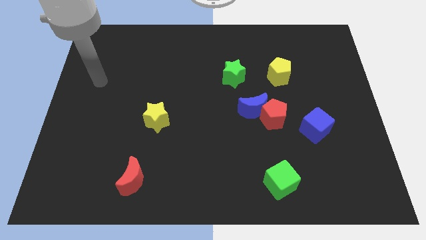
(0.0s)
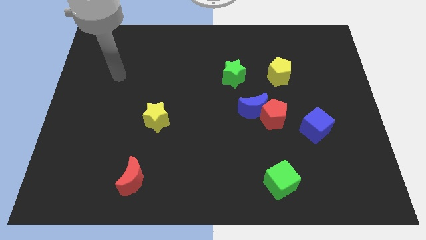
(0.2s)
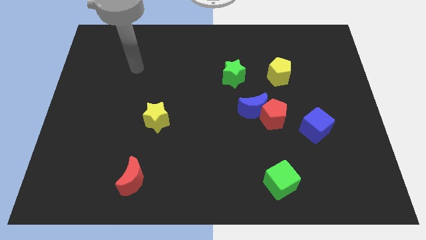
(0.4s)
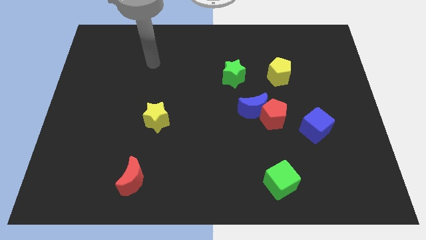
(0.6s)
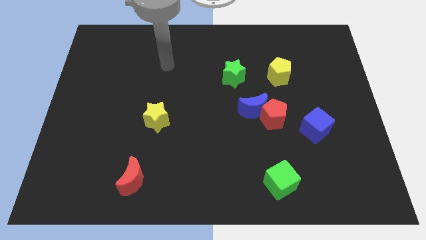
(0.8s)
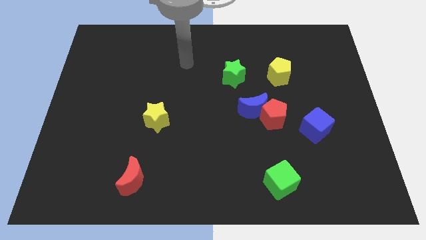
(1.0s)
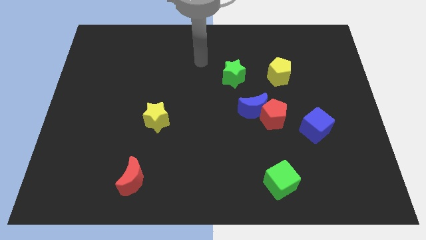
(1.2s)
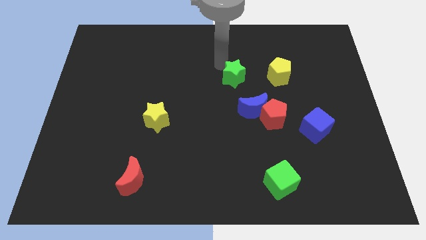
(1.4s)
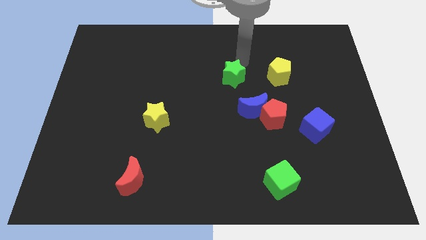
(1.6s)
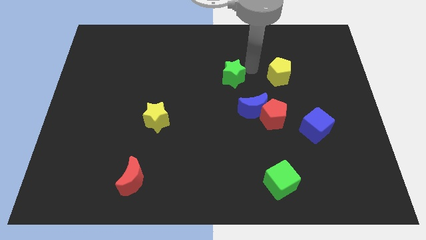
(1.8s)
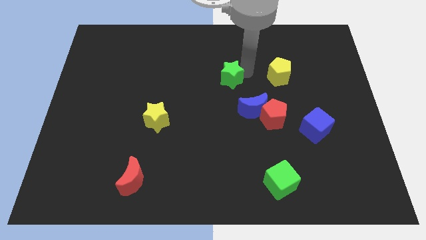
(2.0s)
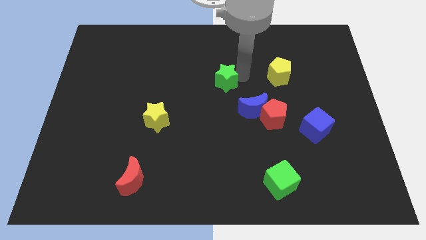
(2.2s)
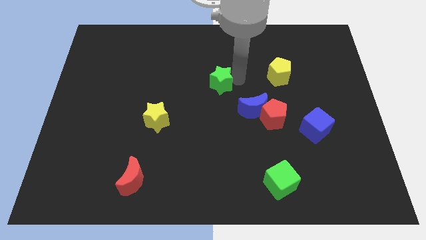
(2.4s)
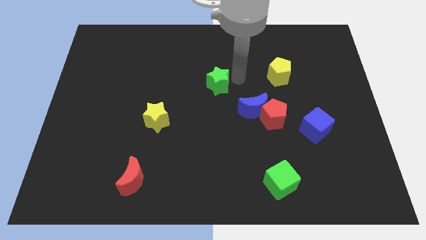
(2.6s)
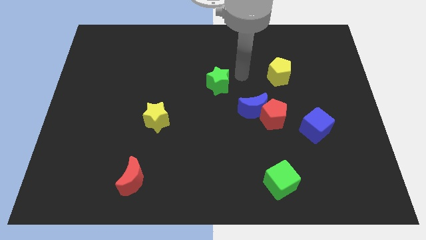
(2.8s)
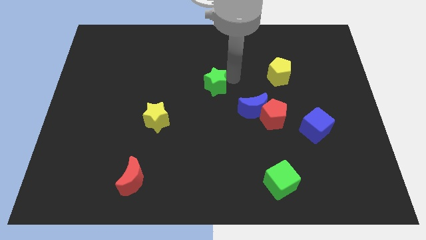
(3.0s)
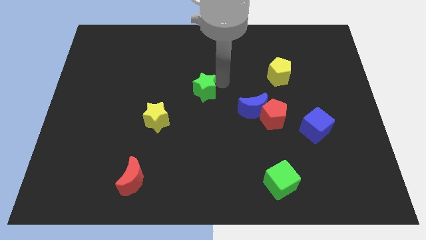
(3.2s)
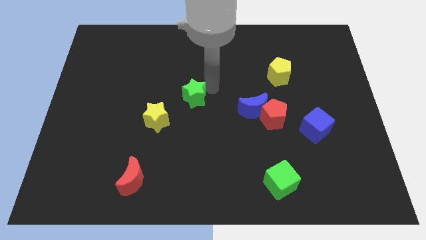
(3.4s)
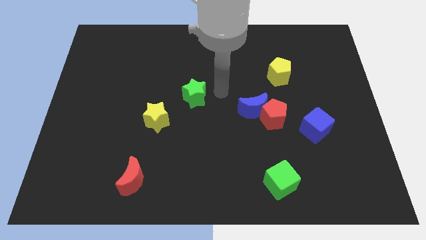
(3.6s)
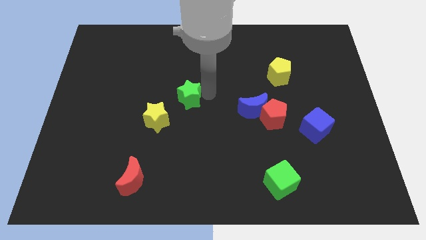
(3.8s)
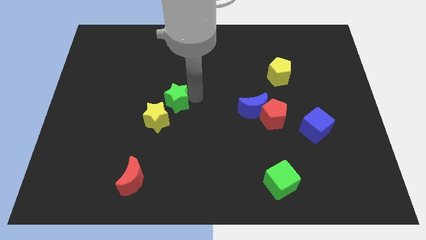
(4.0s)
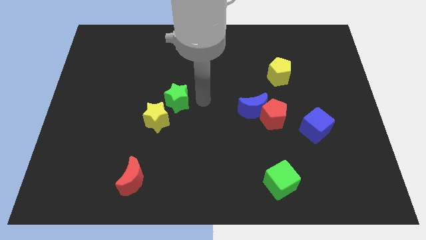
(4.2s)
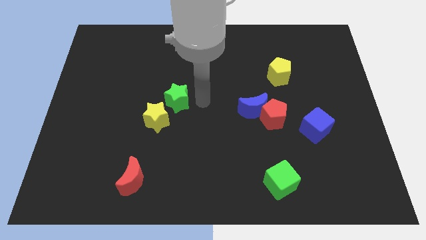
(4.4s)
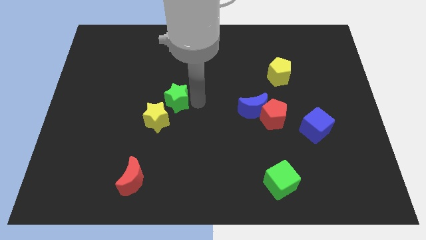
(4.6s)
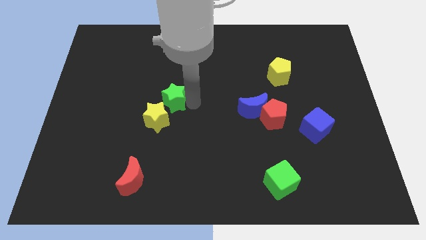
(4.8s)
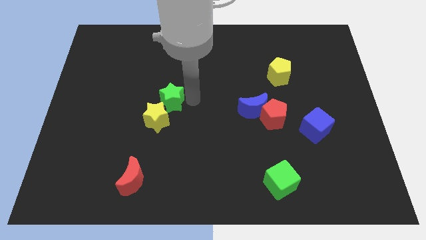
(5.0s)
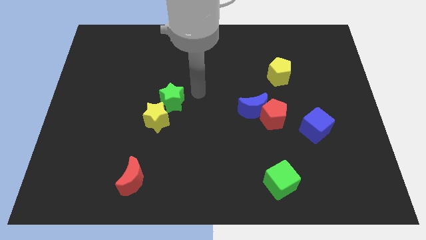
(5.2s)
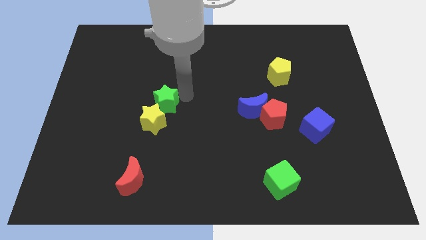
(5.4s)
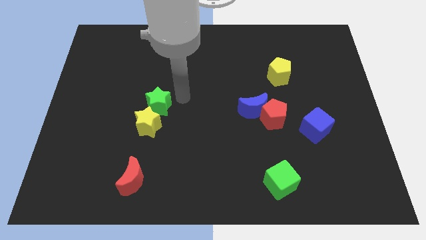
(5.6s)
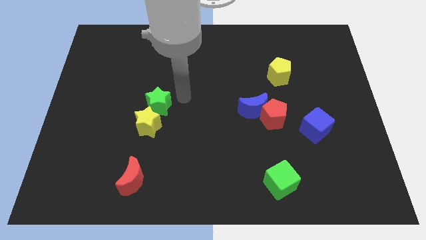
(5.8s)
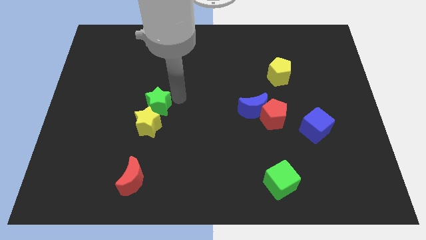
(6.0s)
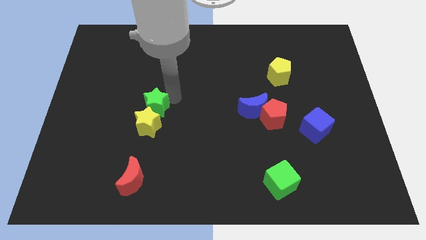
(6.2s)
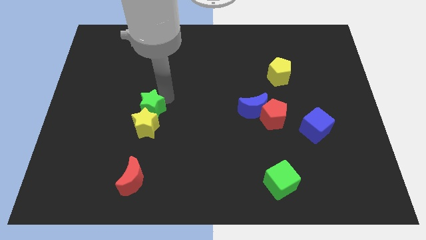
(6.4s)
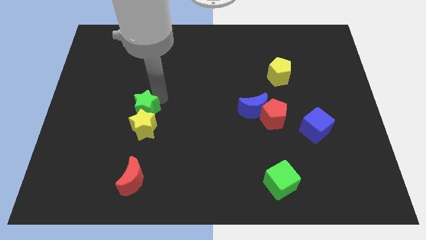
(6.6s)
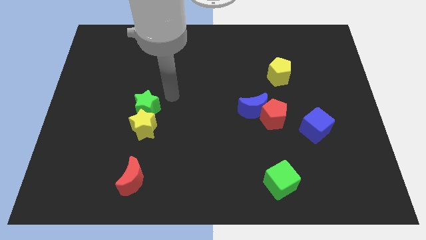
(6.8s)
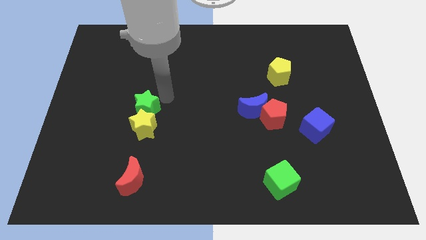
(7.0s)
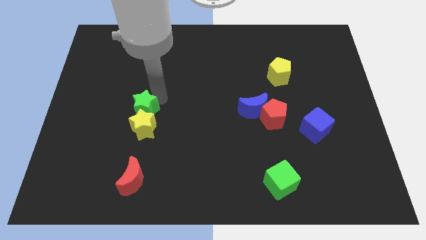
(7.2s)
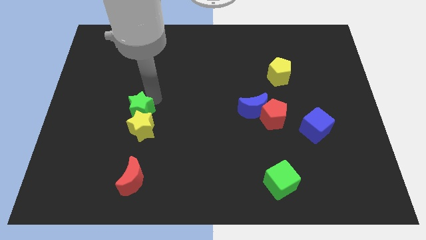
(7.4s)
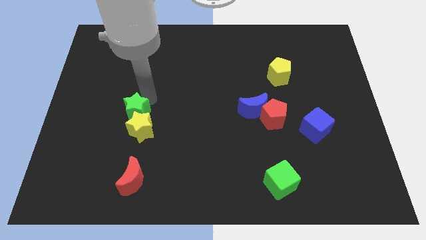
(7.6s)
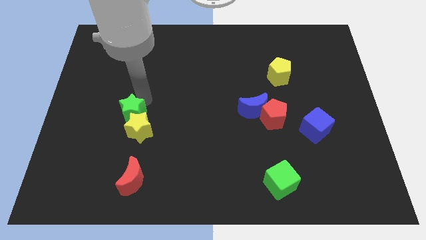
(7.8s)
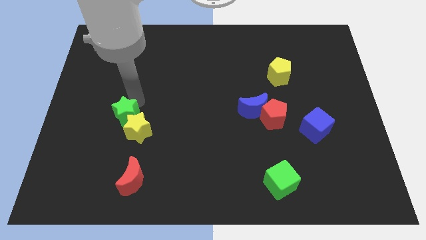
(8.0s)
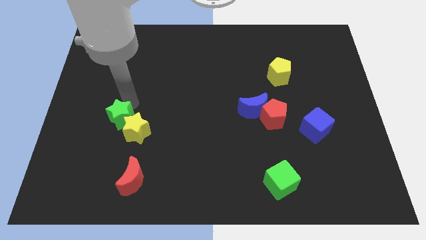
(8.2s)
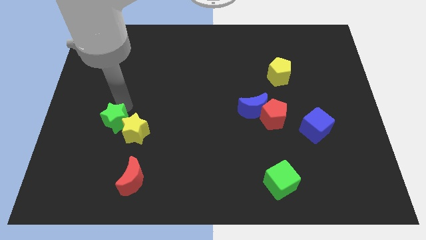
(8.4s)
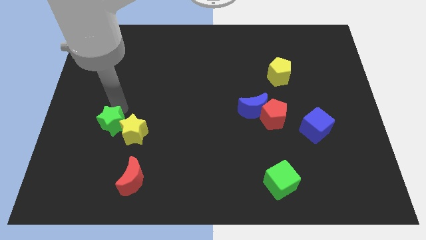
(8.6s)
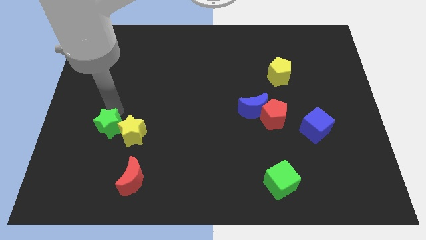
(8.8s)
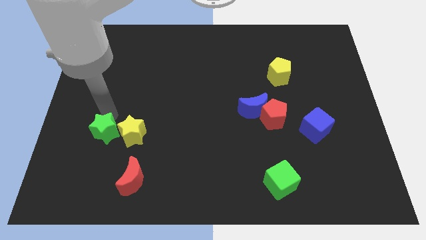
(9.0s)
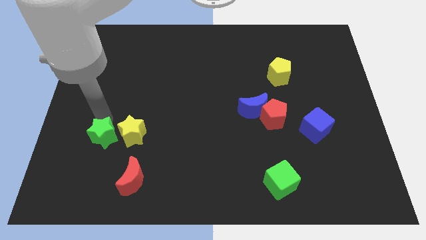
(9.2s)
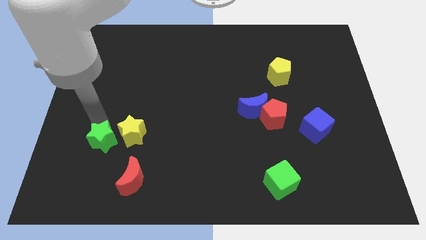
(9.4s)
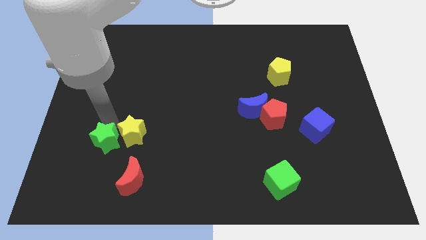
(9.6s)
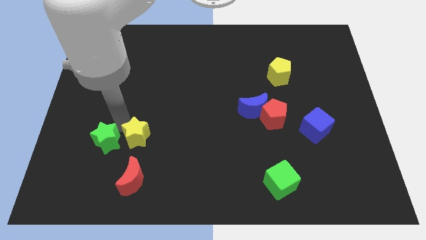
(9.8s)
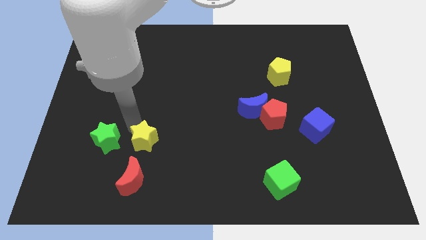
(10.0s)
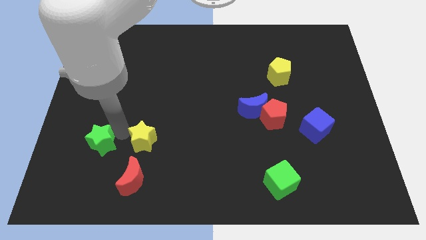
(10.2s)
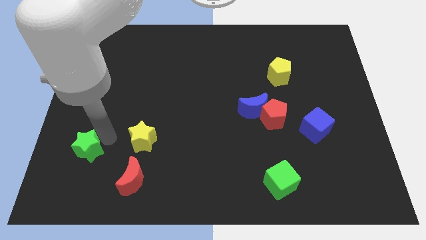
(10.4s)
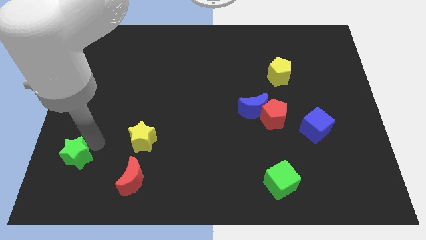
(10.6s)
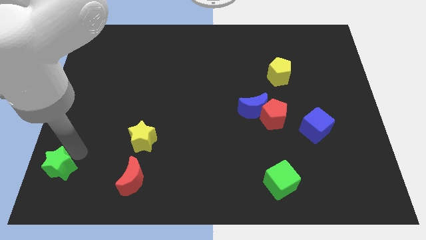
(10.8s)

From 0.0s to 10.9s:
put the green star to the bottom left corner

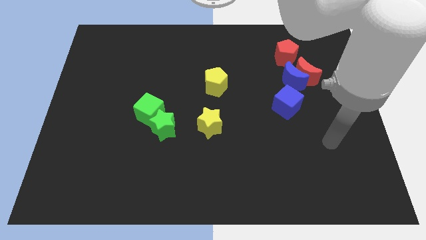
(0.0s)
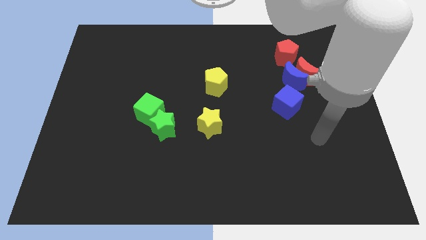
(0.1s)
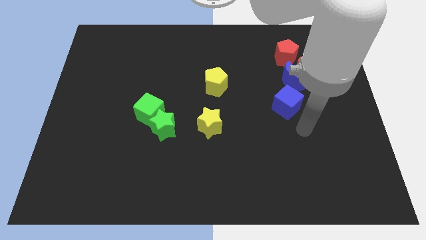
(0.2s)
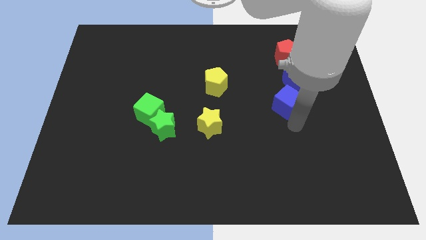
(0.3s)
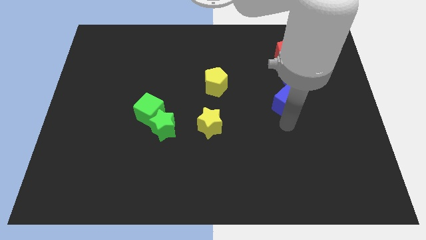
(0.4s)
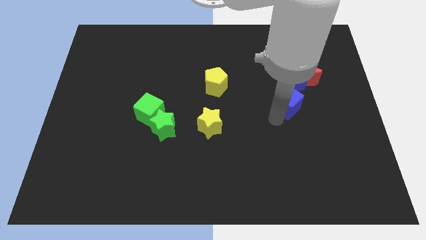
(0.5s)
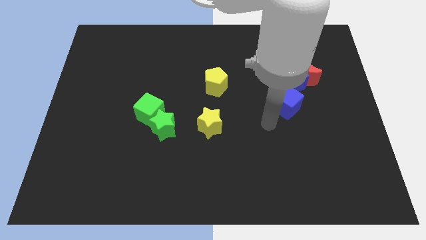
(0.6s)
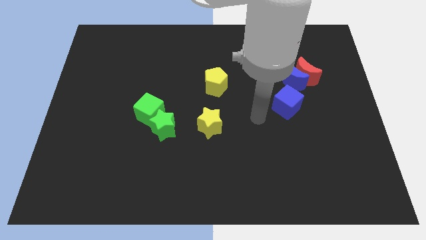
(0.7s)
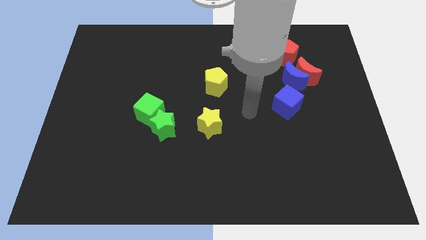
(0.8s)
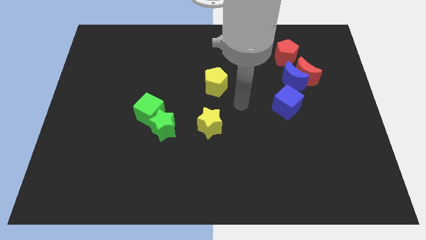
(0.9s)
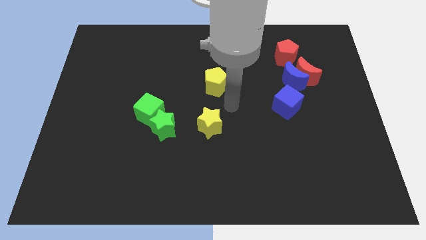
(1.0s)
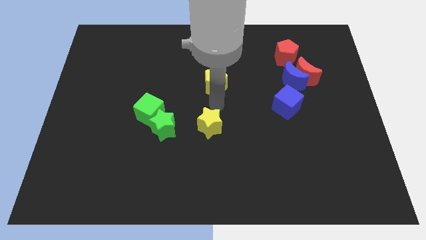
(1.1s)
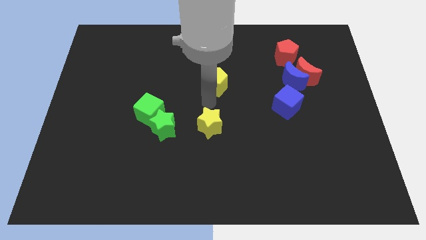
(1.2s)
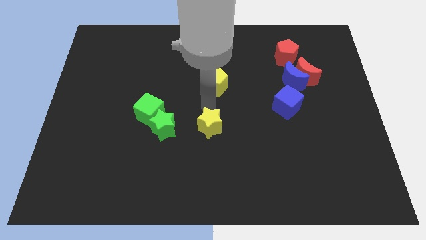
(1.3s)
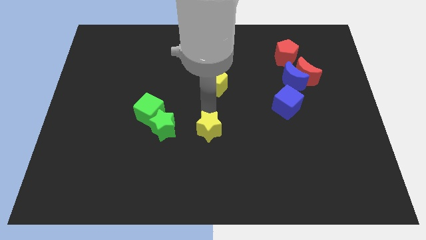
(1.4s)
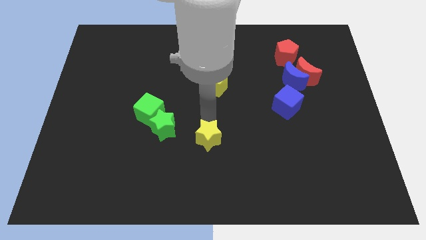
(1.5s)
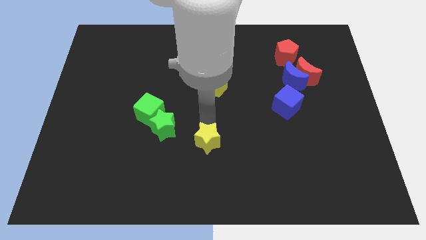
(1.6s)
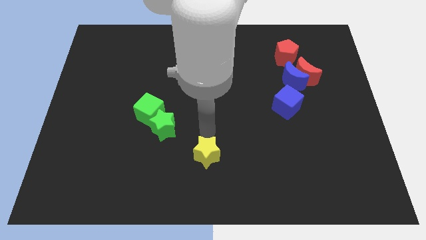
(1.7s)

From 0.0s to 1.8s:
put the yellow star to the bottom

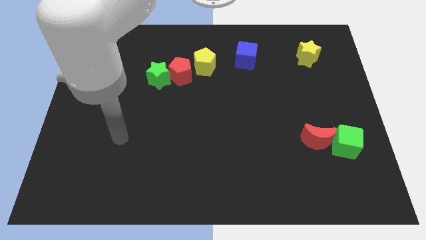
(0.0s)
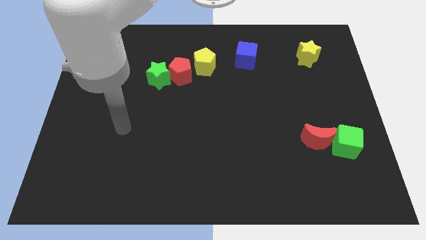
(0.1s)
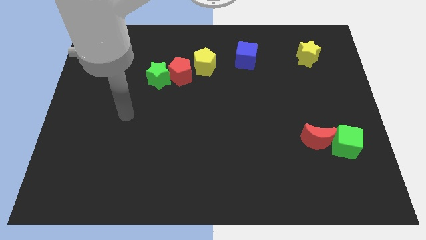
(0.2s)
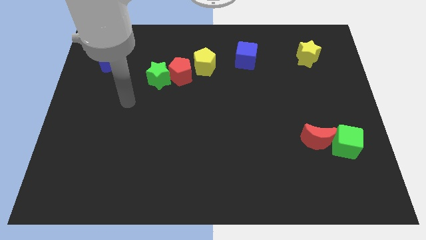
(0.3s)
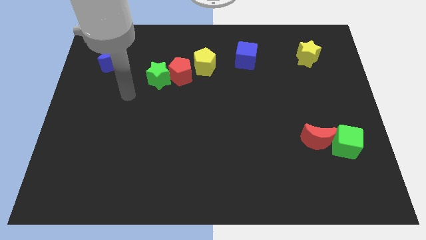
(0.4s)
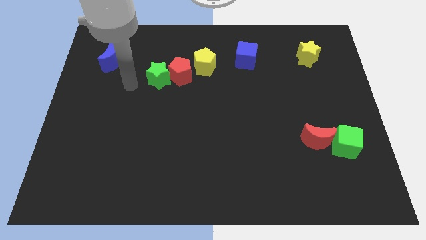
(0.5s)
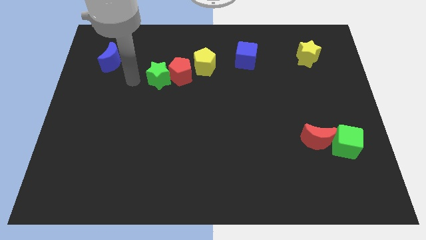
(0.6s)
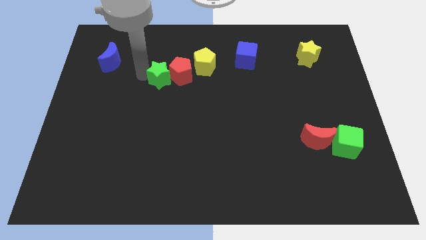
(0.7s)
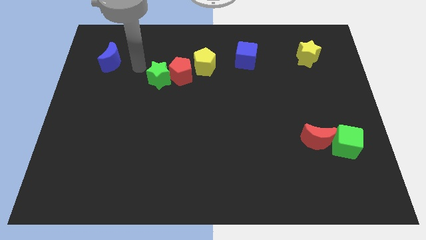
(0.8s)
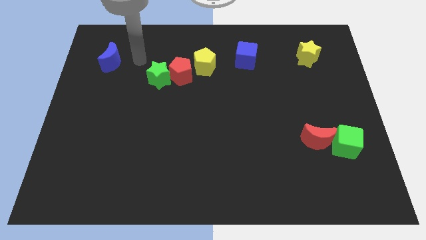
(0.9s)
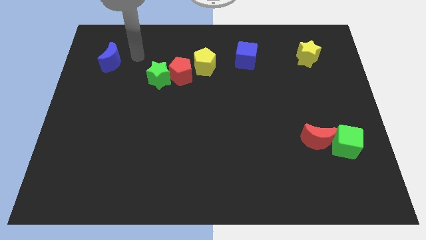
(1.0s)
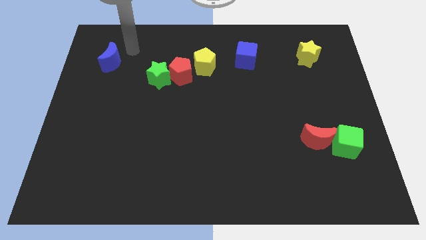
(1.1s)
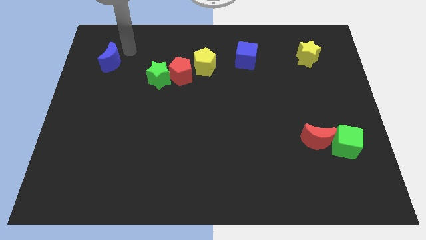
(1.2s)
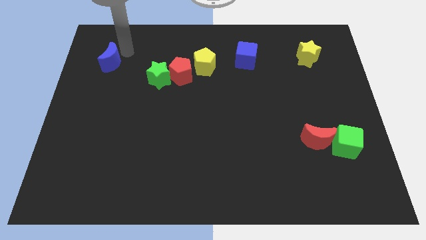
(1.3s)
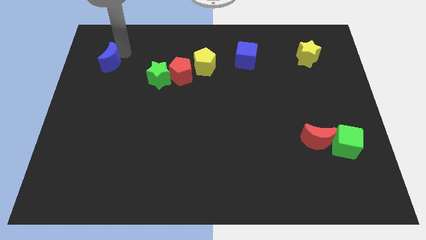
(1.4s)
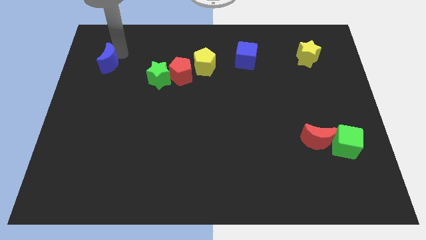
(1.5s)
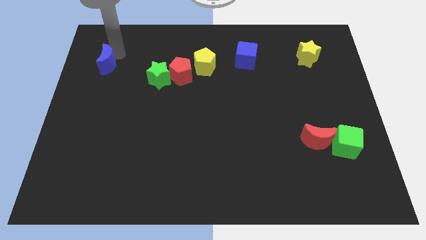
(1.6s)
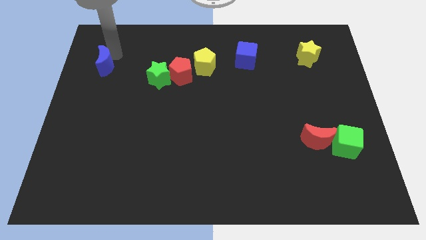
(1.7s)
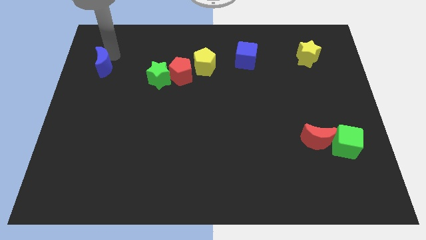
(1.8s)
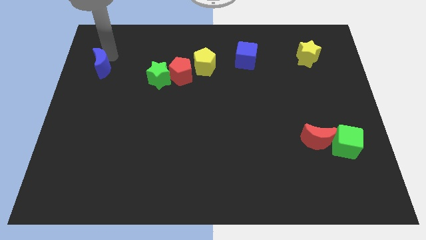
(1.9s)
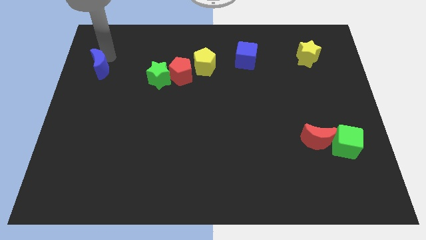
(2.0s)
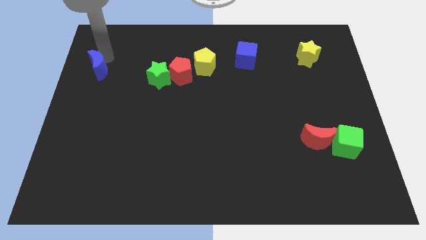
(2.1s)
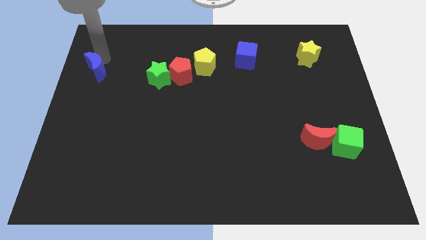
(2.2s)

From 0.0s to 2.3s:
move the blue moon to the left side
